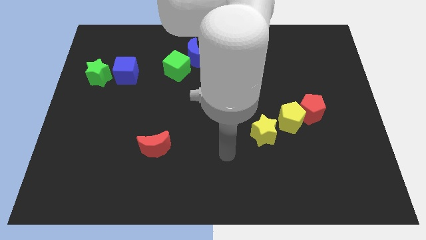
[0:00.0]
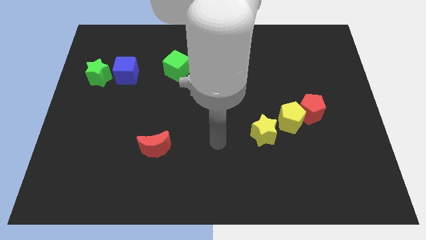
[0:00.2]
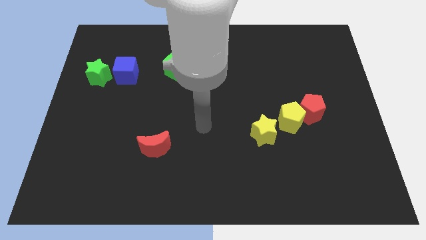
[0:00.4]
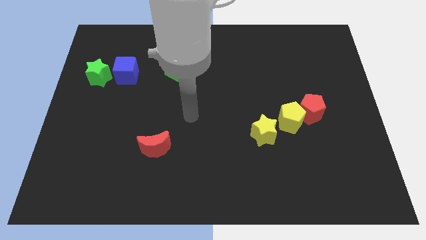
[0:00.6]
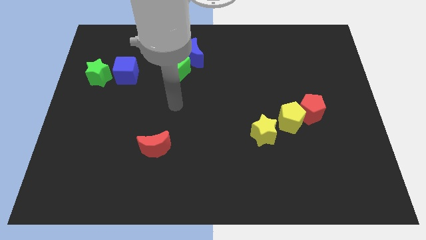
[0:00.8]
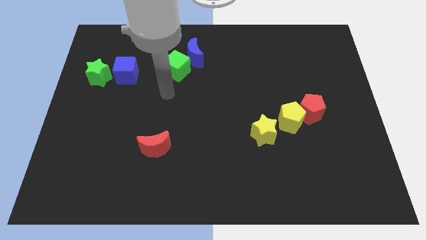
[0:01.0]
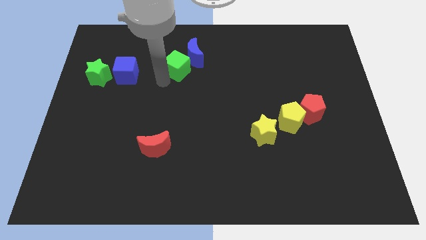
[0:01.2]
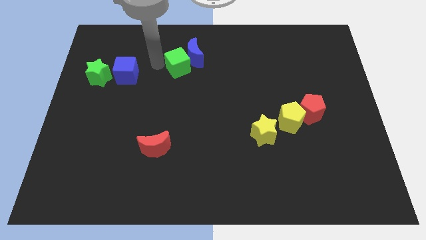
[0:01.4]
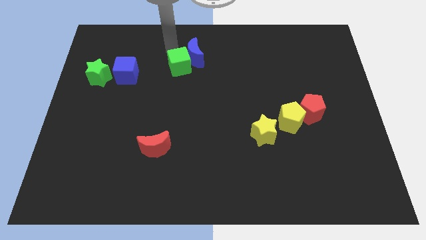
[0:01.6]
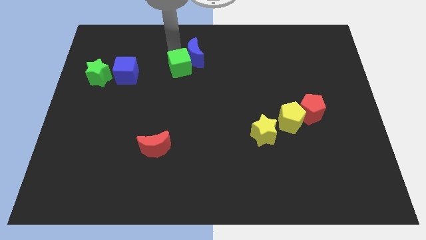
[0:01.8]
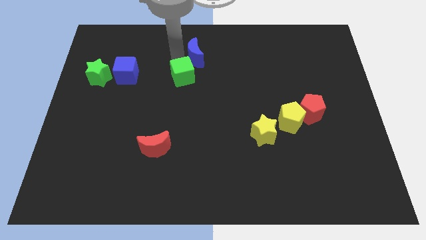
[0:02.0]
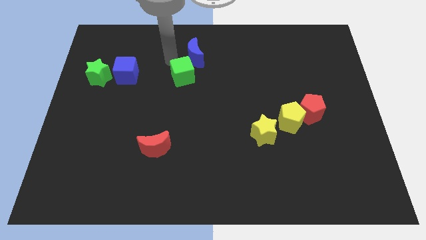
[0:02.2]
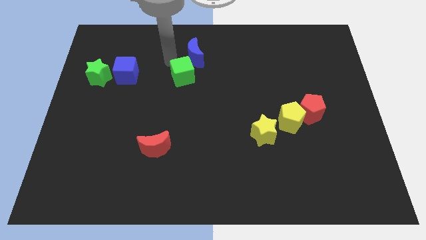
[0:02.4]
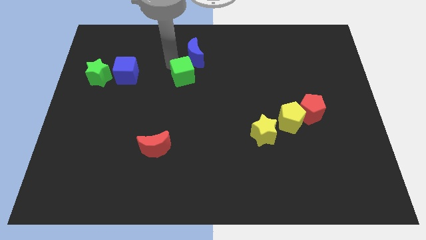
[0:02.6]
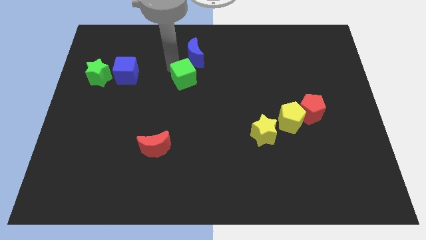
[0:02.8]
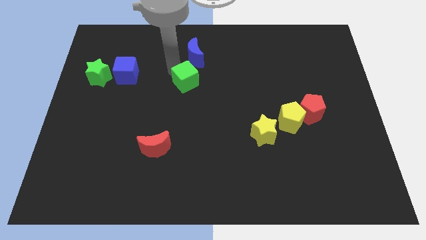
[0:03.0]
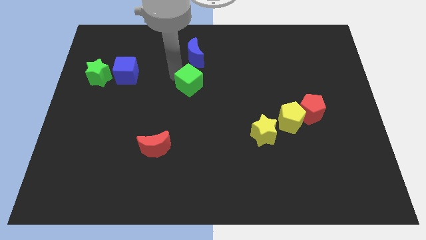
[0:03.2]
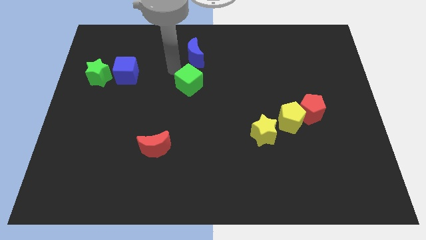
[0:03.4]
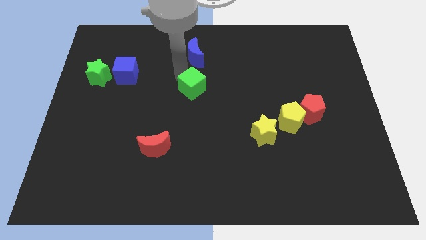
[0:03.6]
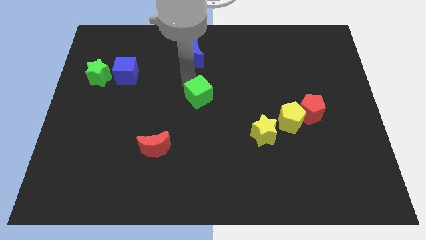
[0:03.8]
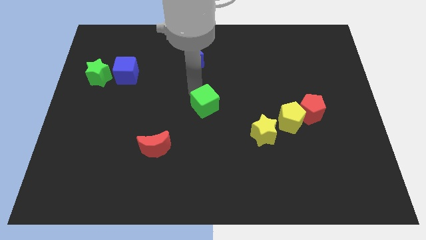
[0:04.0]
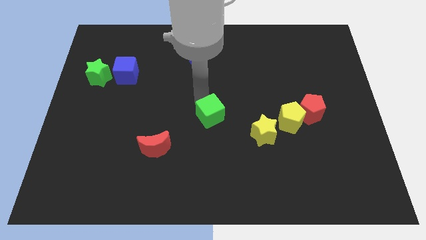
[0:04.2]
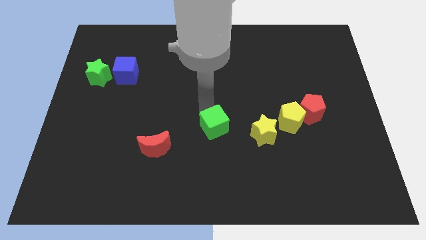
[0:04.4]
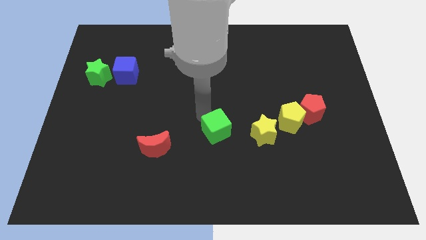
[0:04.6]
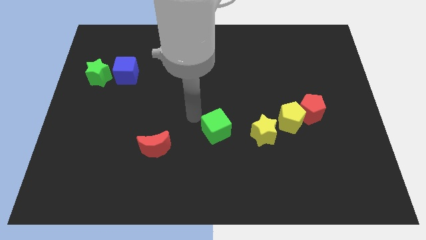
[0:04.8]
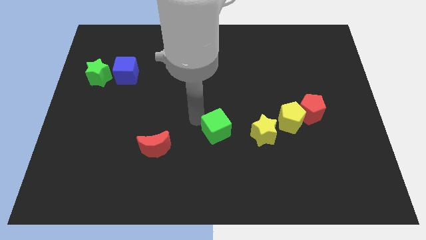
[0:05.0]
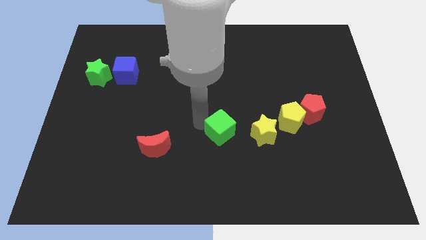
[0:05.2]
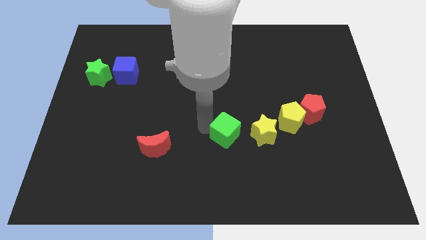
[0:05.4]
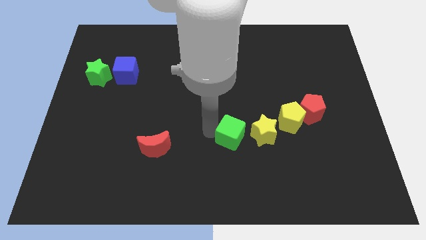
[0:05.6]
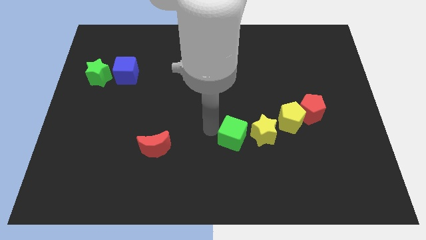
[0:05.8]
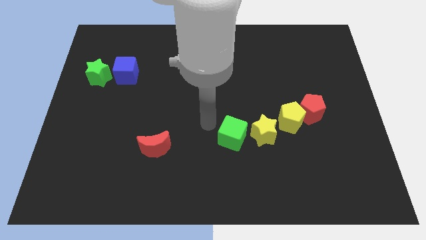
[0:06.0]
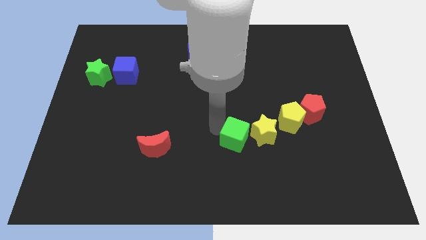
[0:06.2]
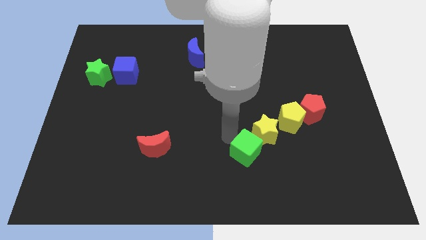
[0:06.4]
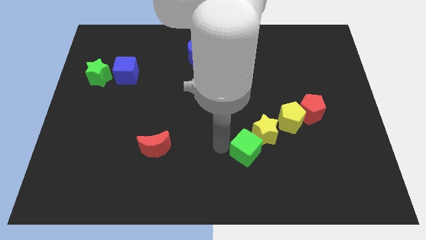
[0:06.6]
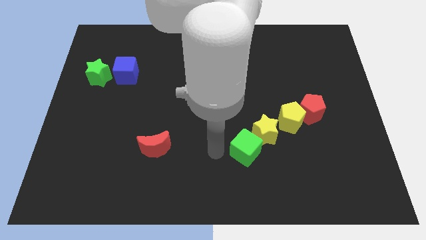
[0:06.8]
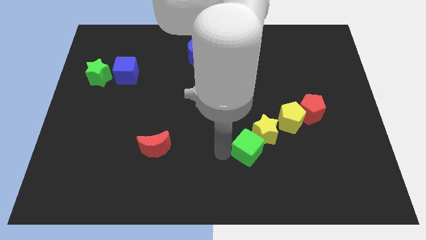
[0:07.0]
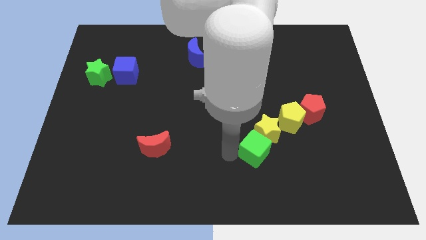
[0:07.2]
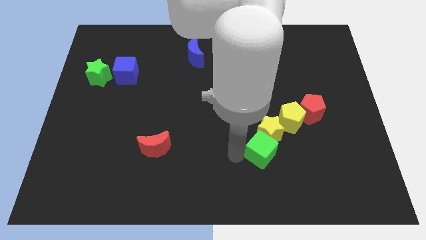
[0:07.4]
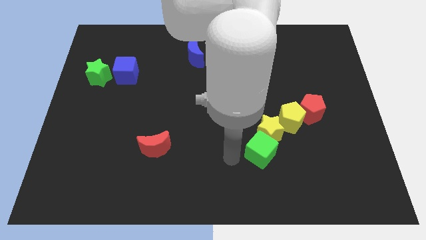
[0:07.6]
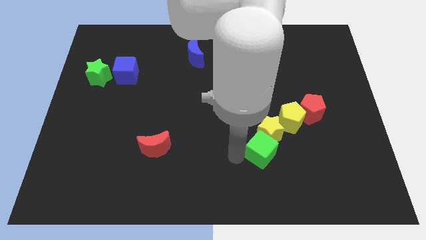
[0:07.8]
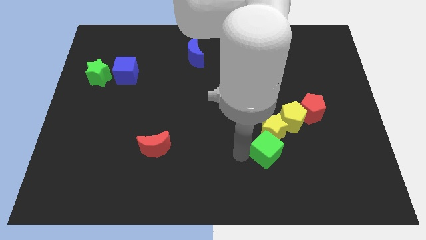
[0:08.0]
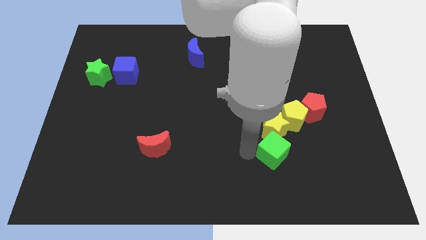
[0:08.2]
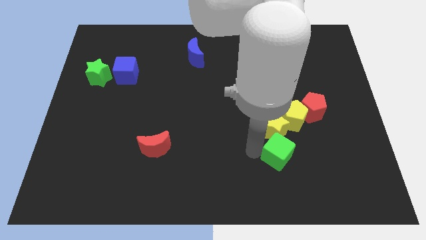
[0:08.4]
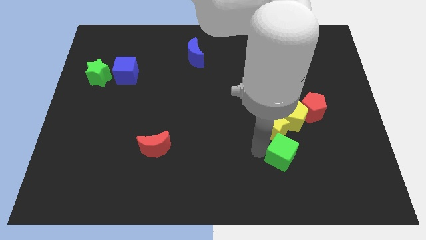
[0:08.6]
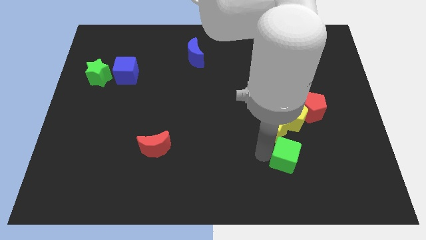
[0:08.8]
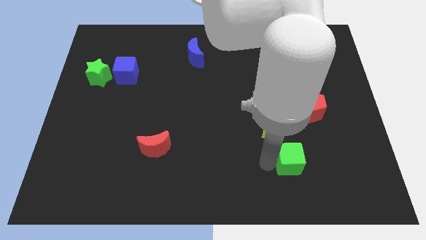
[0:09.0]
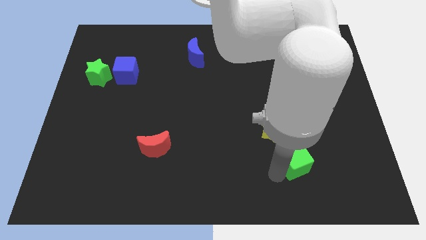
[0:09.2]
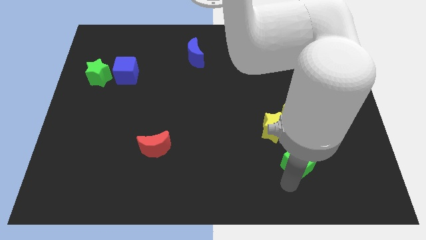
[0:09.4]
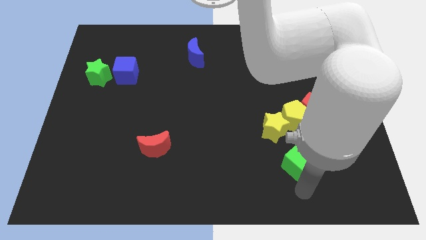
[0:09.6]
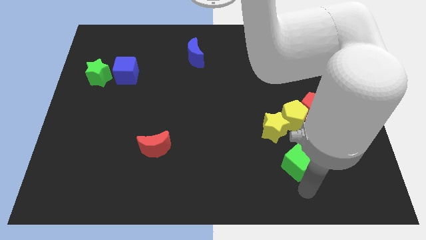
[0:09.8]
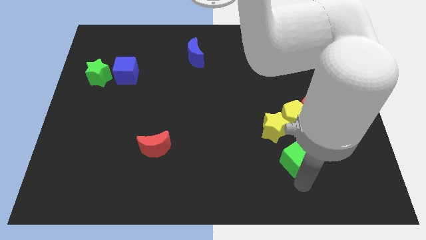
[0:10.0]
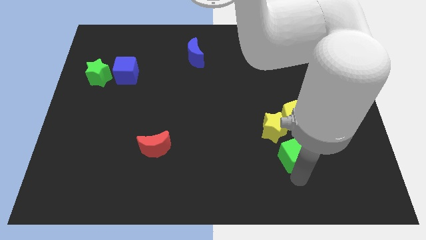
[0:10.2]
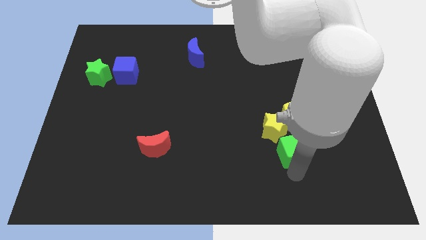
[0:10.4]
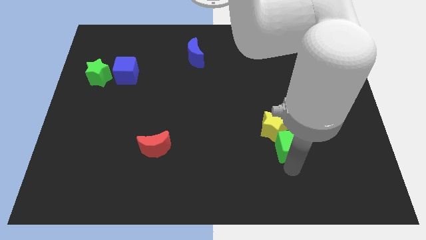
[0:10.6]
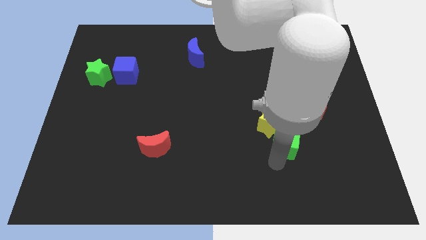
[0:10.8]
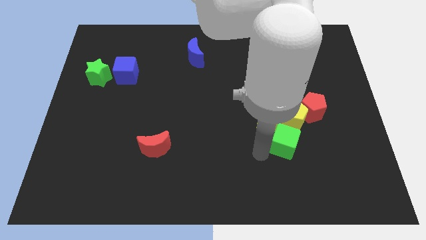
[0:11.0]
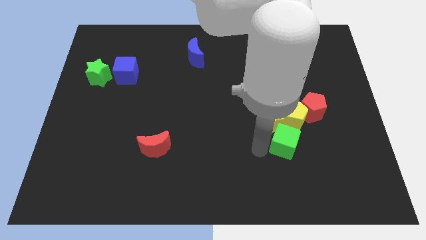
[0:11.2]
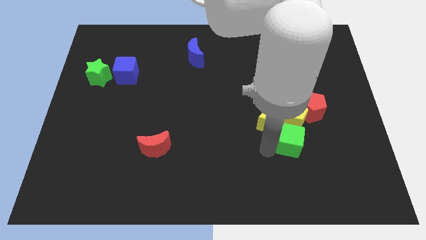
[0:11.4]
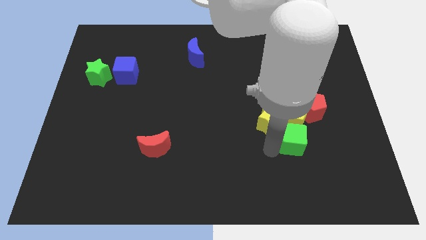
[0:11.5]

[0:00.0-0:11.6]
put the green cube diagonally down and to the right of the yellow pentagon

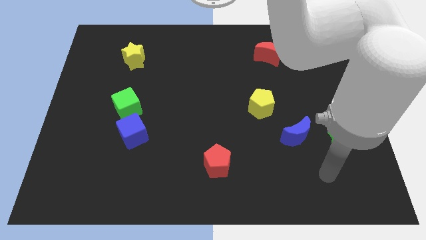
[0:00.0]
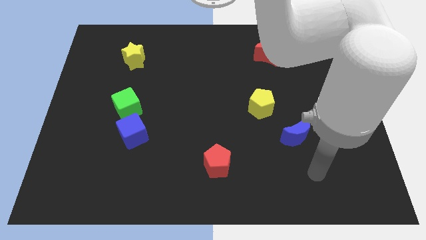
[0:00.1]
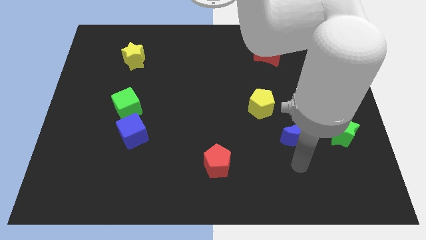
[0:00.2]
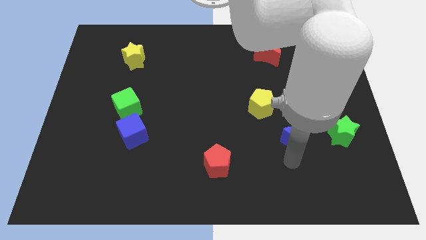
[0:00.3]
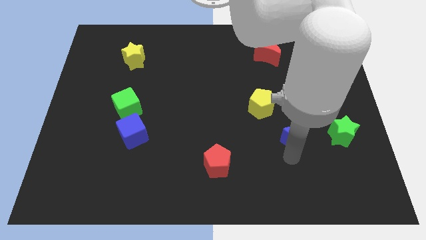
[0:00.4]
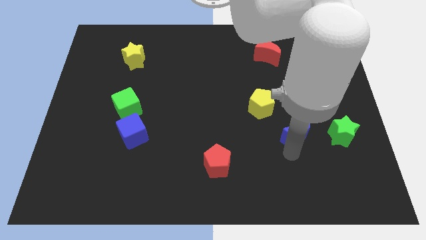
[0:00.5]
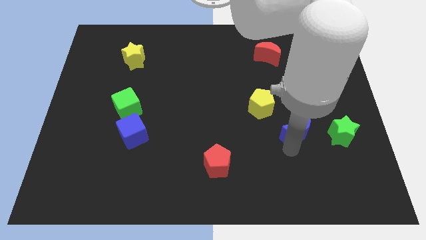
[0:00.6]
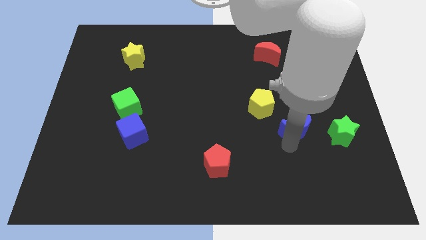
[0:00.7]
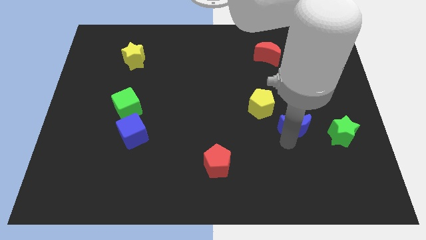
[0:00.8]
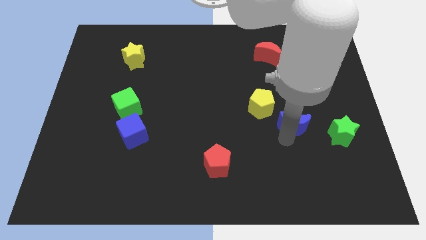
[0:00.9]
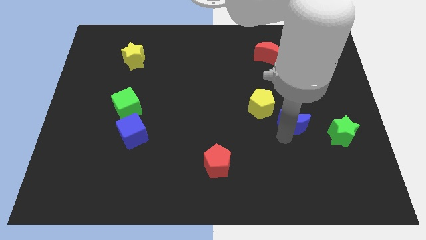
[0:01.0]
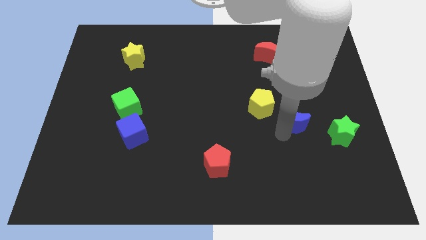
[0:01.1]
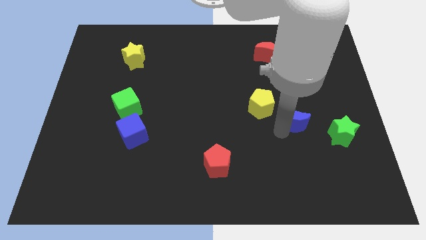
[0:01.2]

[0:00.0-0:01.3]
put the blue moon to the right side of the yellow pentagon
